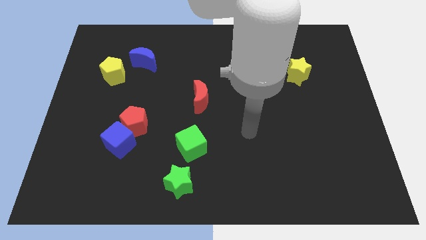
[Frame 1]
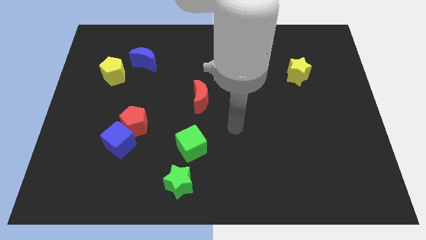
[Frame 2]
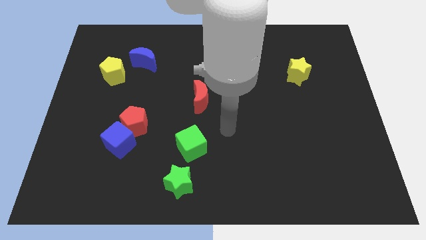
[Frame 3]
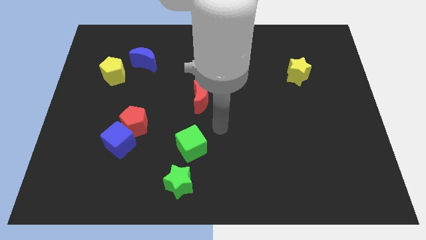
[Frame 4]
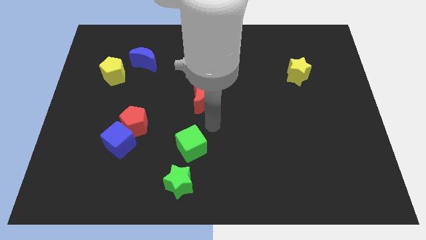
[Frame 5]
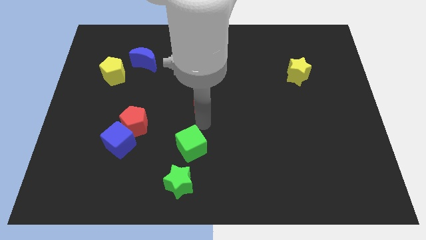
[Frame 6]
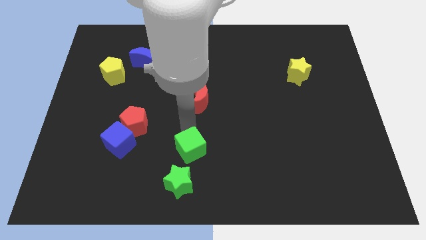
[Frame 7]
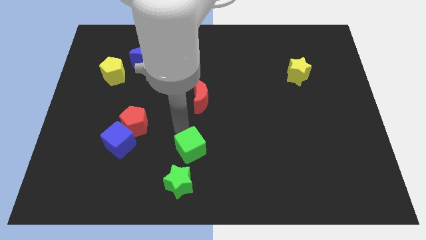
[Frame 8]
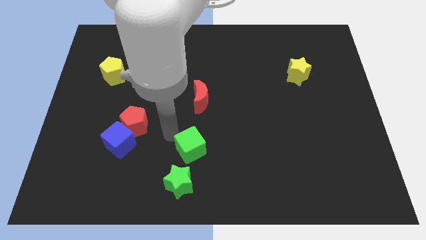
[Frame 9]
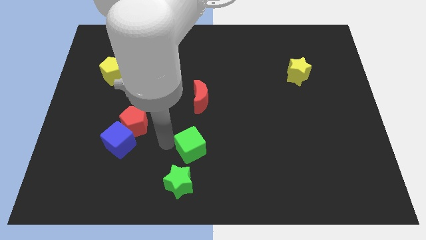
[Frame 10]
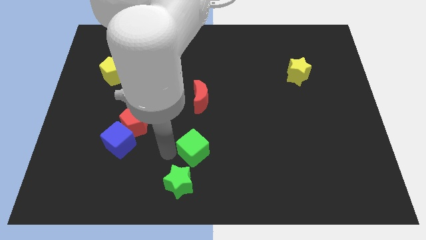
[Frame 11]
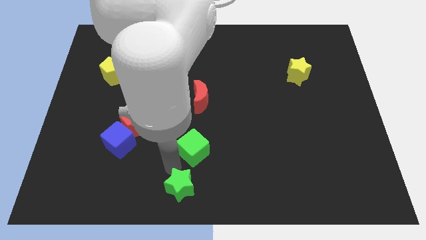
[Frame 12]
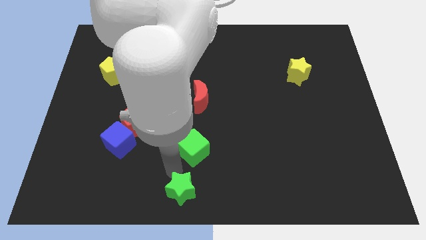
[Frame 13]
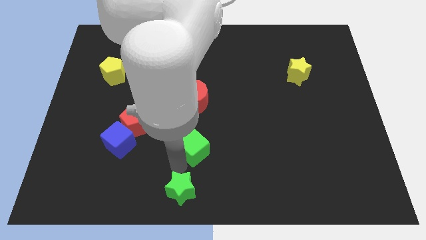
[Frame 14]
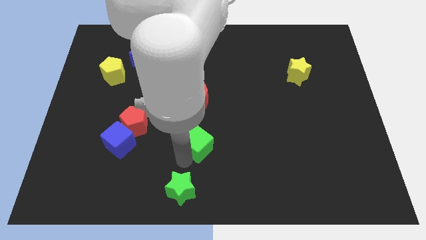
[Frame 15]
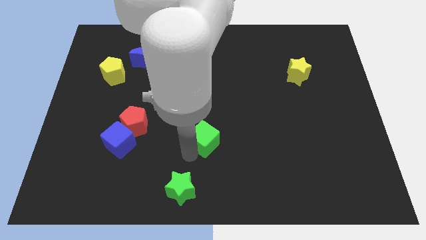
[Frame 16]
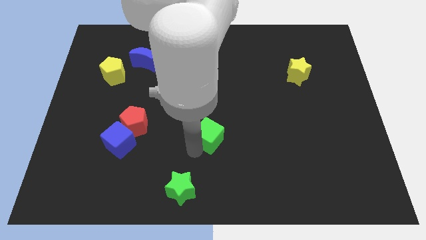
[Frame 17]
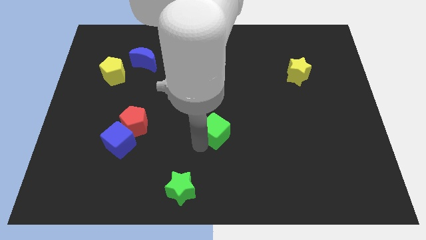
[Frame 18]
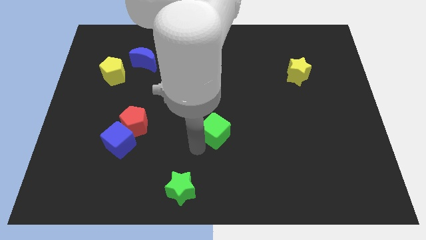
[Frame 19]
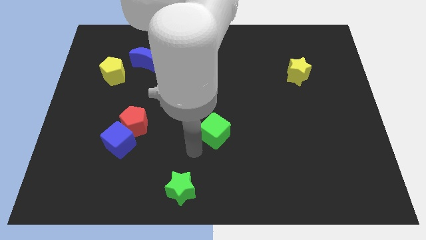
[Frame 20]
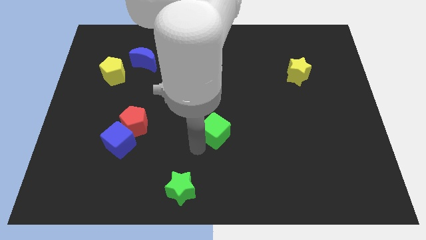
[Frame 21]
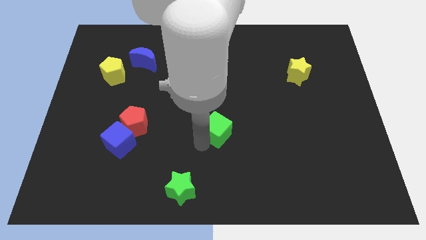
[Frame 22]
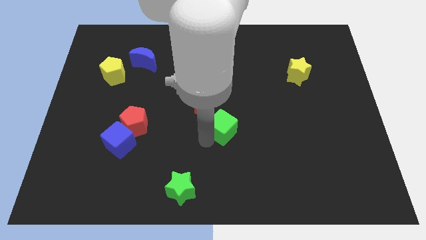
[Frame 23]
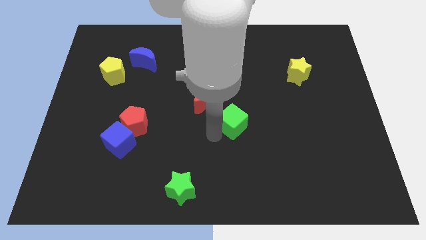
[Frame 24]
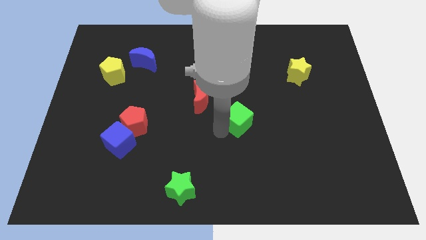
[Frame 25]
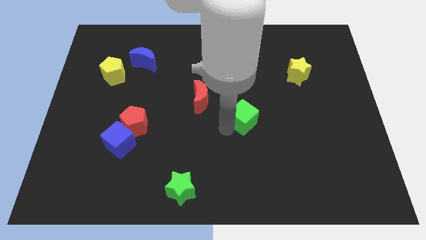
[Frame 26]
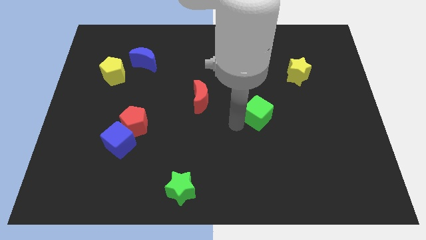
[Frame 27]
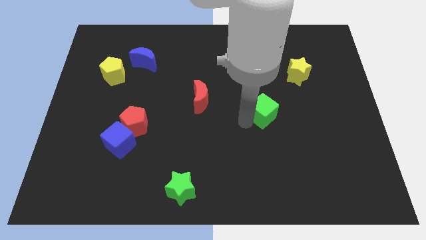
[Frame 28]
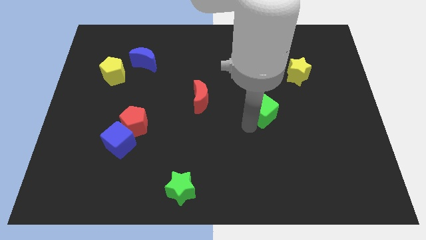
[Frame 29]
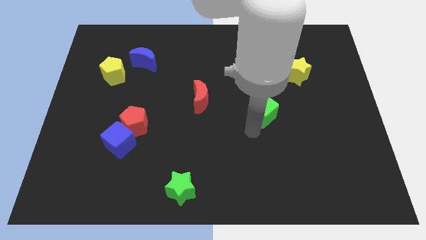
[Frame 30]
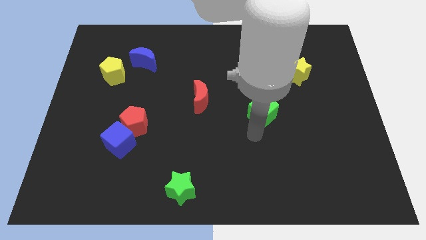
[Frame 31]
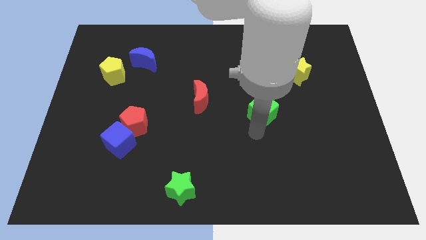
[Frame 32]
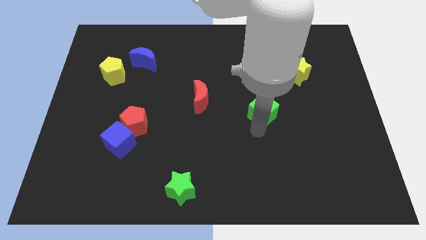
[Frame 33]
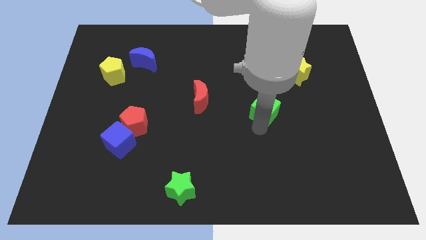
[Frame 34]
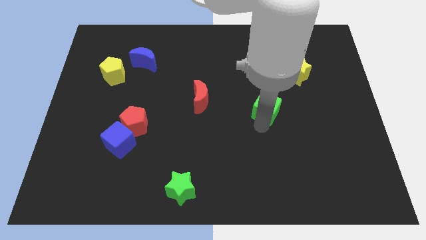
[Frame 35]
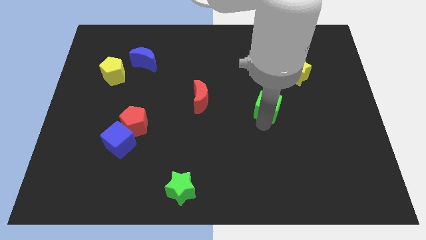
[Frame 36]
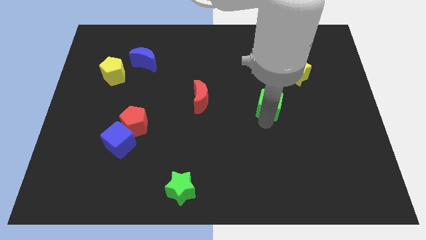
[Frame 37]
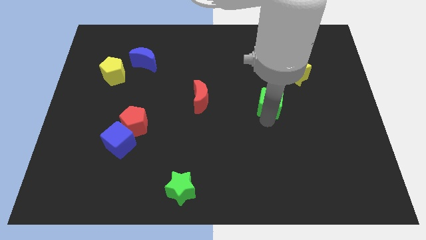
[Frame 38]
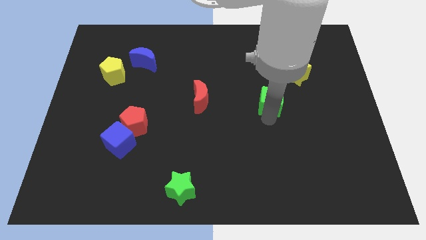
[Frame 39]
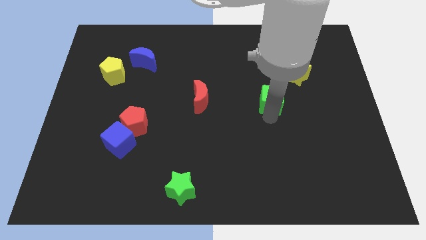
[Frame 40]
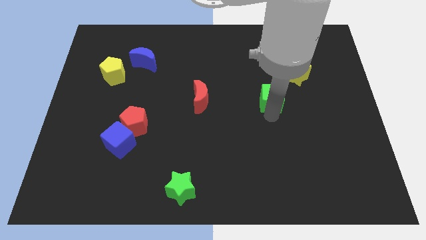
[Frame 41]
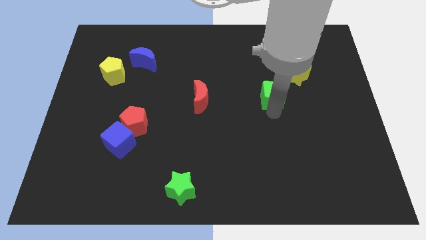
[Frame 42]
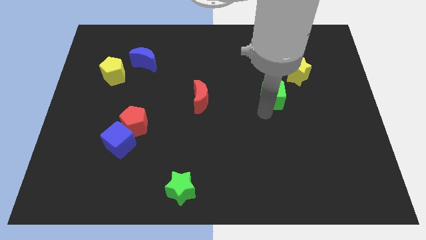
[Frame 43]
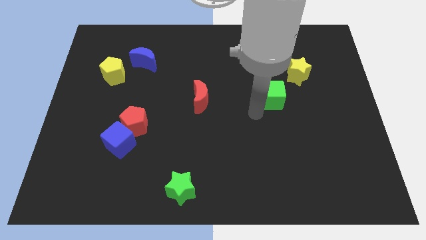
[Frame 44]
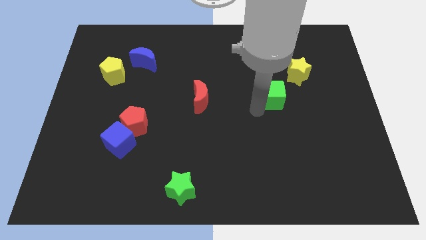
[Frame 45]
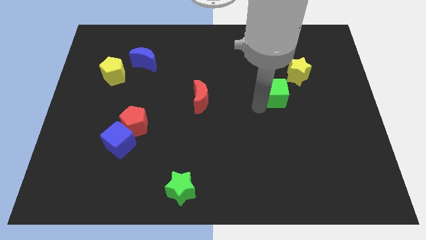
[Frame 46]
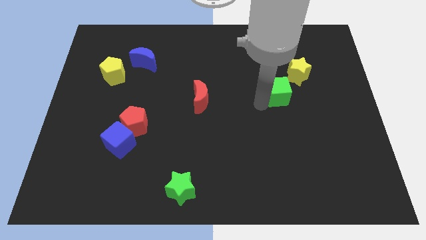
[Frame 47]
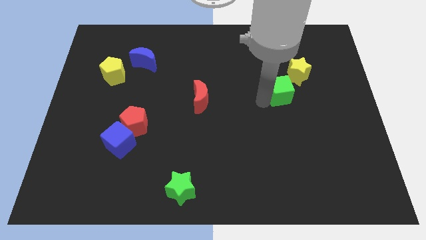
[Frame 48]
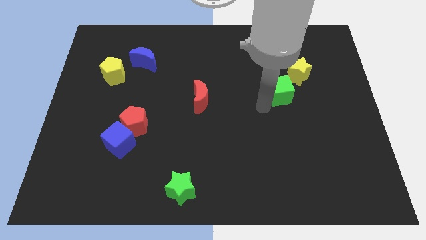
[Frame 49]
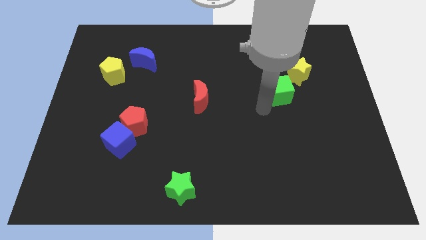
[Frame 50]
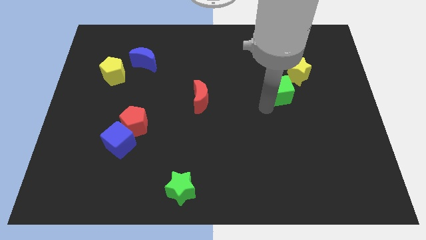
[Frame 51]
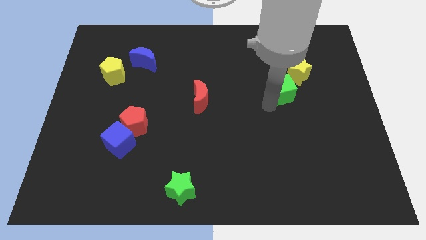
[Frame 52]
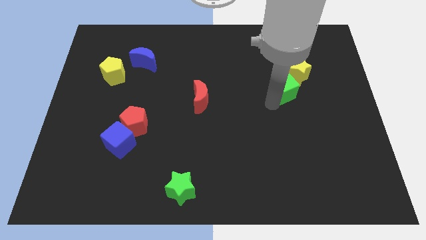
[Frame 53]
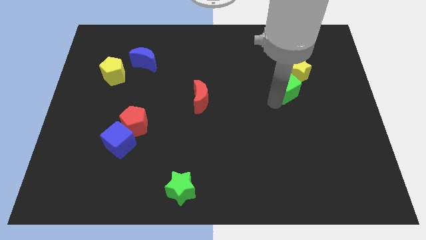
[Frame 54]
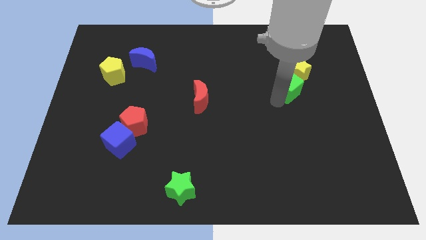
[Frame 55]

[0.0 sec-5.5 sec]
slide the green cube towards the yellow star

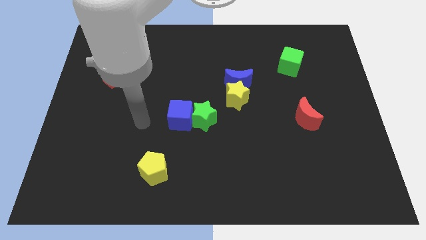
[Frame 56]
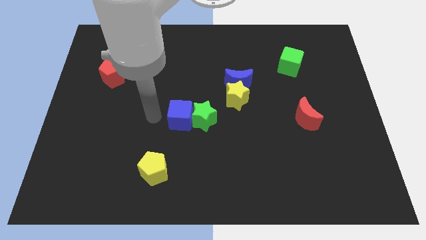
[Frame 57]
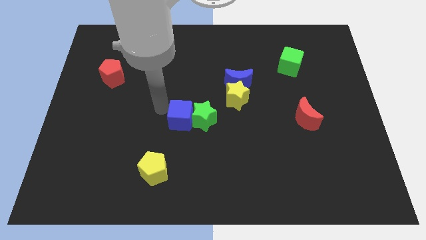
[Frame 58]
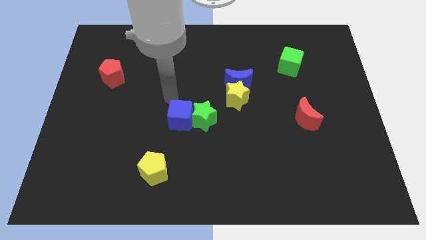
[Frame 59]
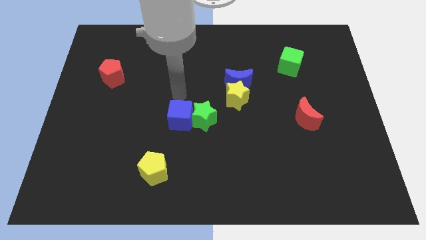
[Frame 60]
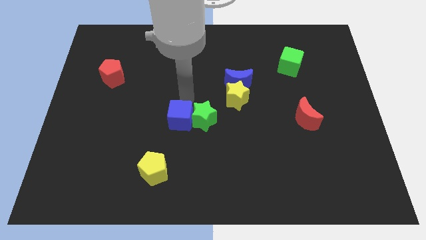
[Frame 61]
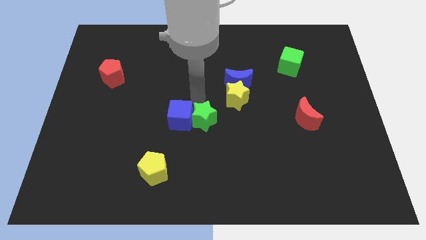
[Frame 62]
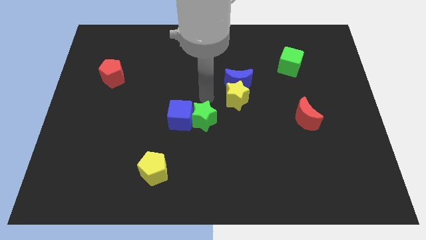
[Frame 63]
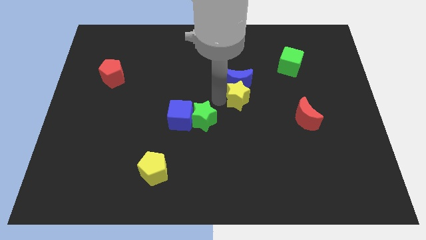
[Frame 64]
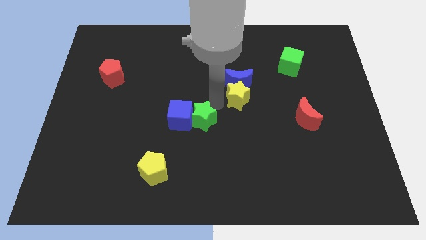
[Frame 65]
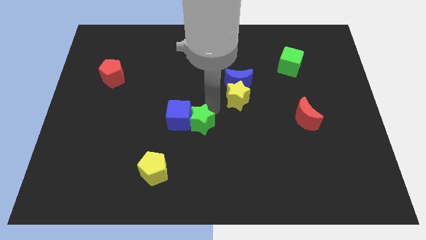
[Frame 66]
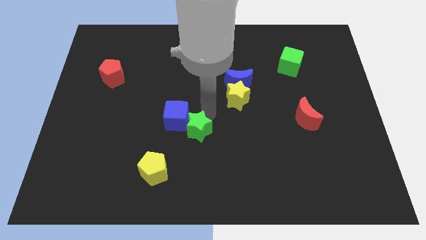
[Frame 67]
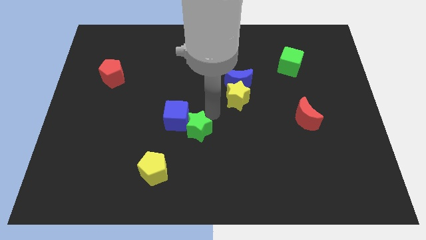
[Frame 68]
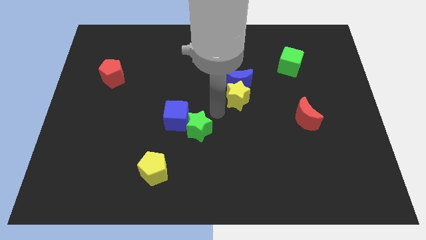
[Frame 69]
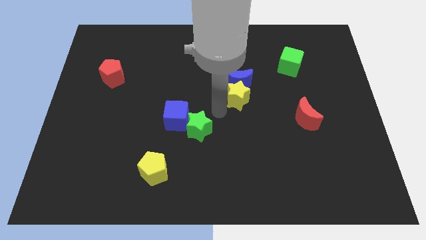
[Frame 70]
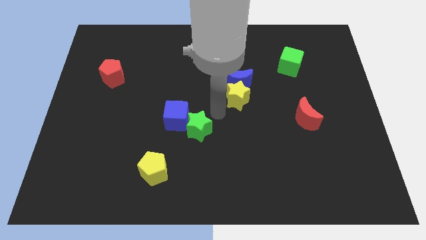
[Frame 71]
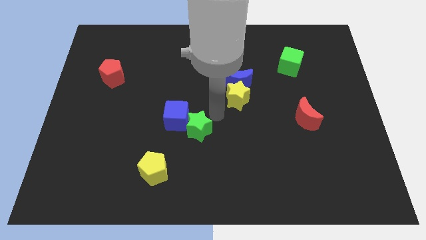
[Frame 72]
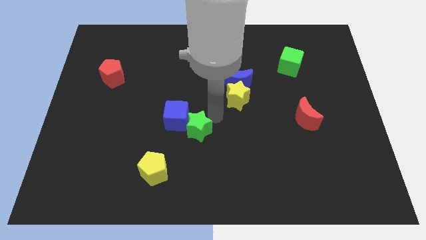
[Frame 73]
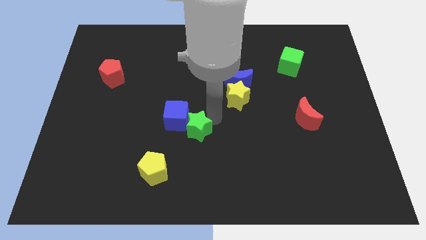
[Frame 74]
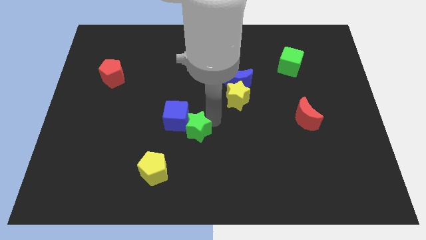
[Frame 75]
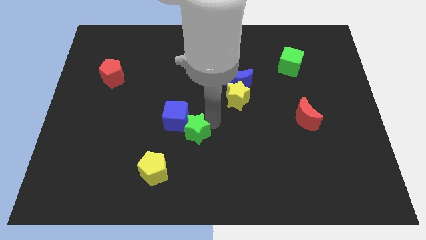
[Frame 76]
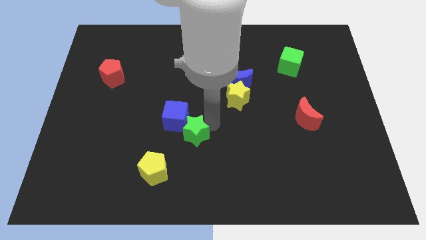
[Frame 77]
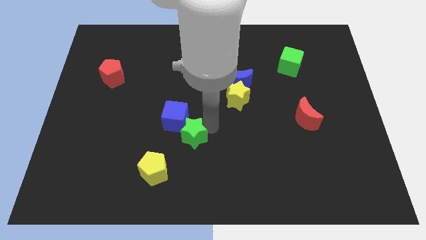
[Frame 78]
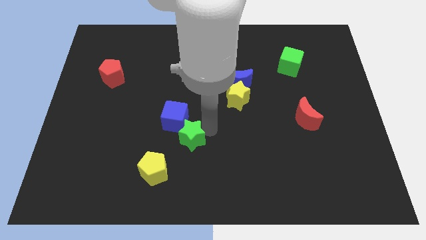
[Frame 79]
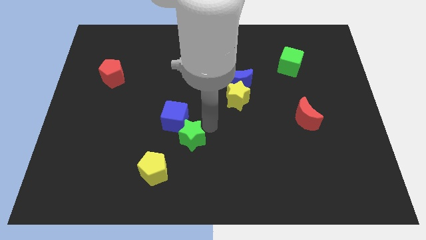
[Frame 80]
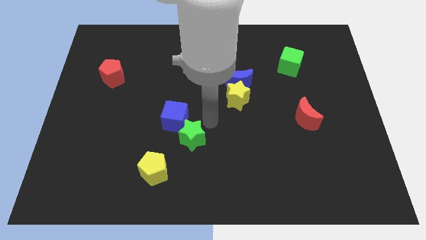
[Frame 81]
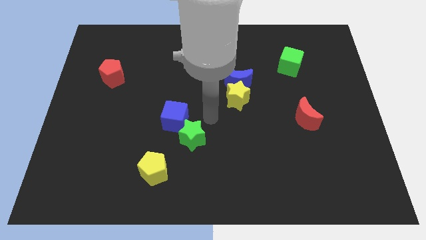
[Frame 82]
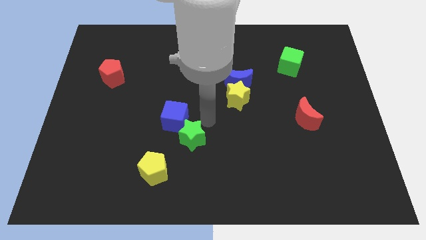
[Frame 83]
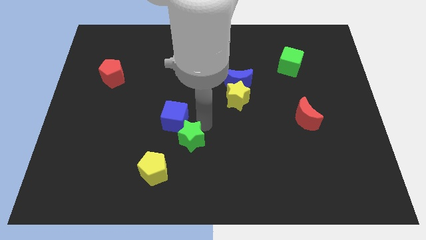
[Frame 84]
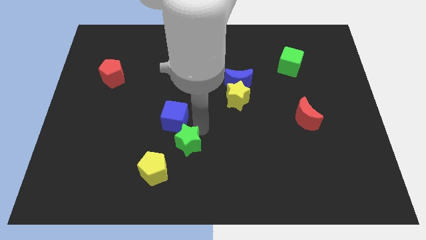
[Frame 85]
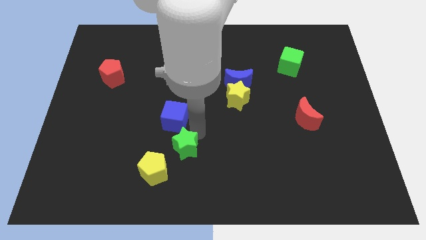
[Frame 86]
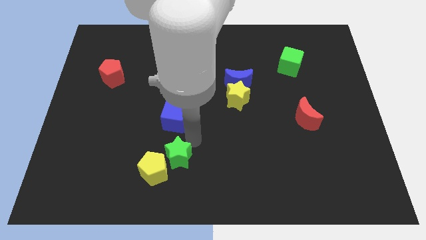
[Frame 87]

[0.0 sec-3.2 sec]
put the green star next to the yellow pentagon
